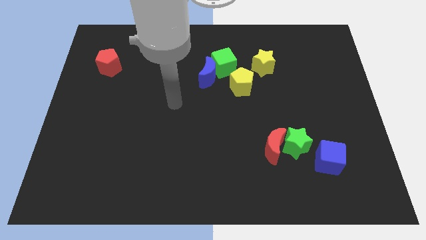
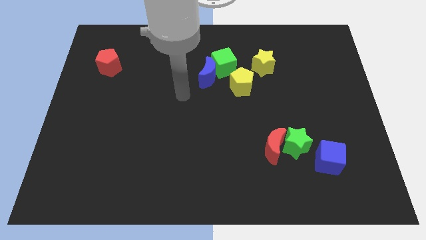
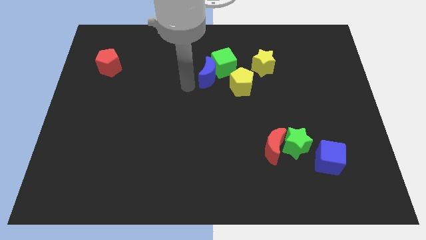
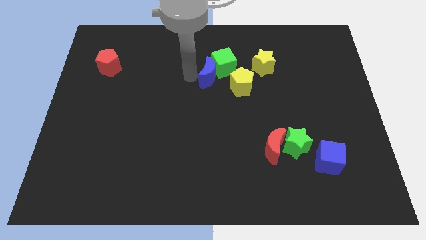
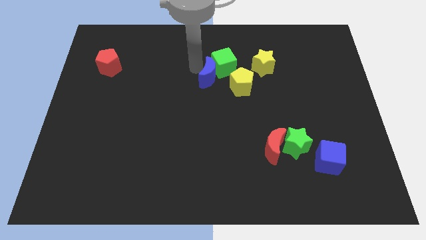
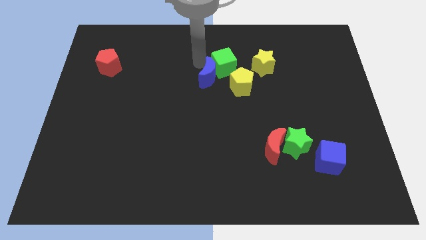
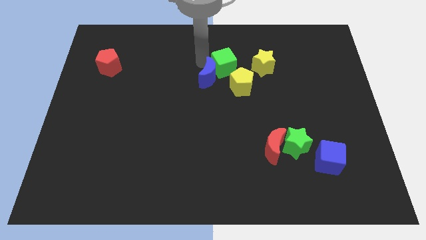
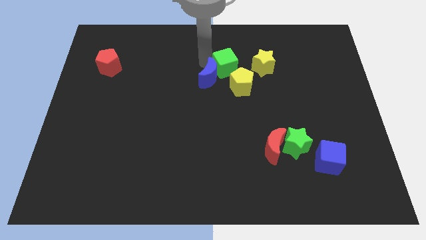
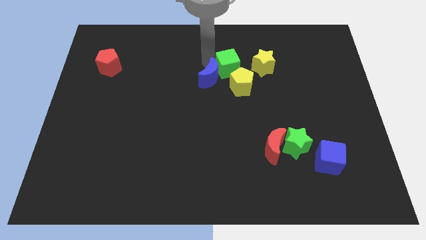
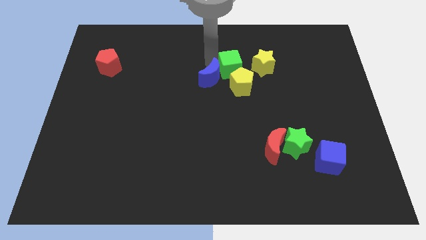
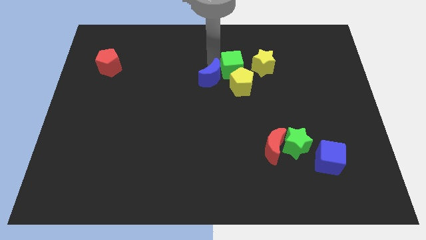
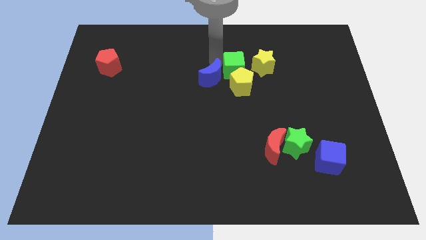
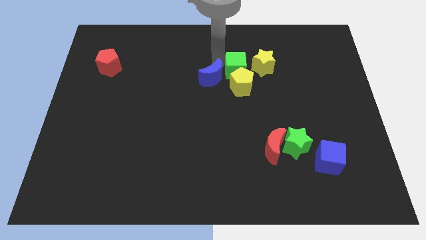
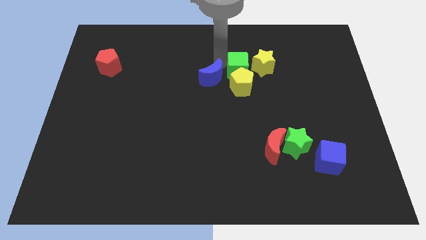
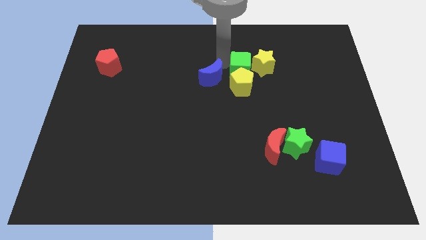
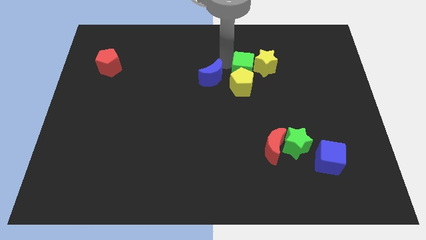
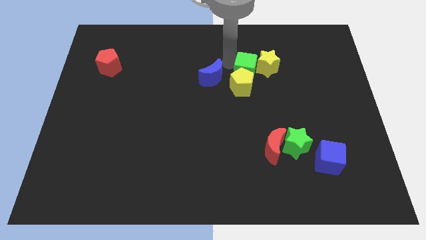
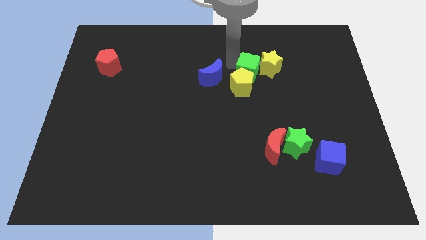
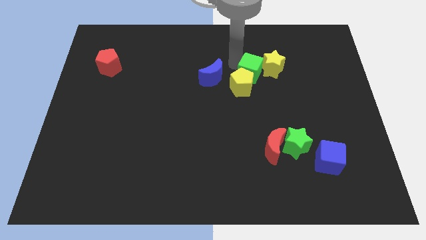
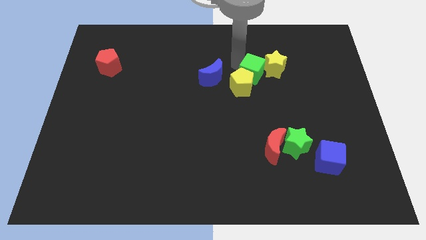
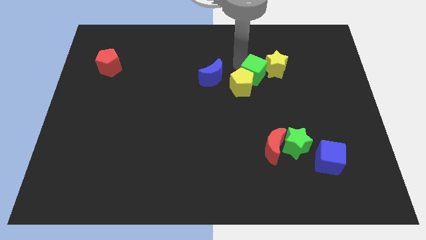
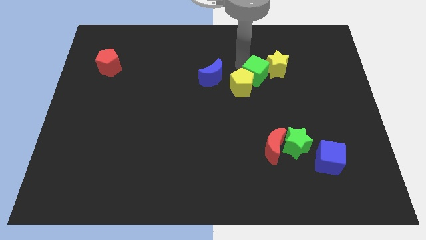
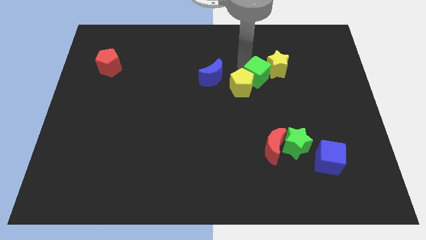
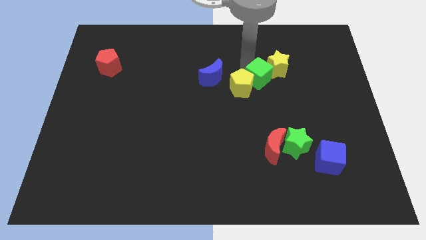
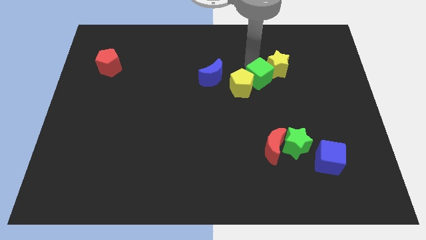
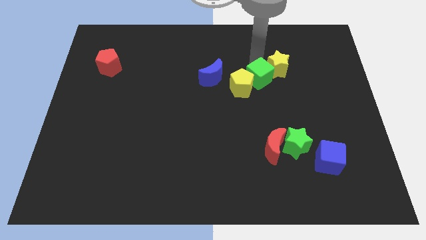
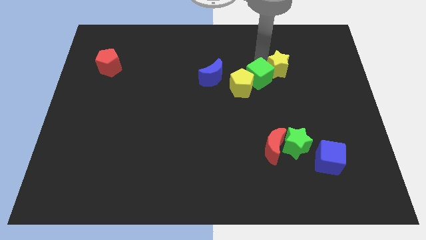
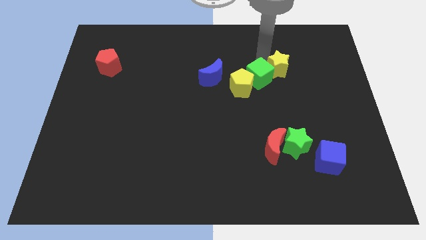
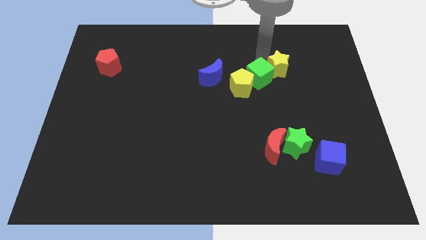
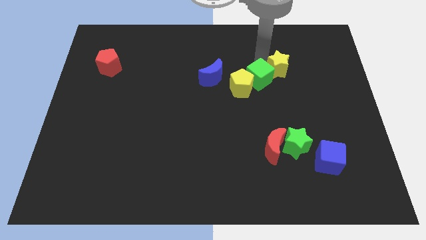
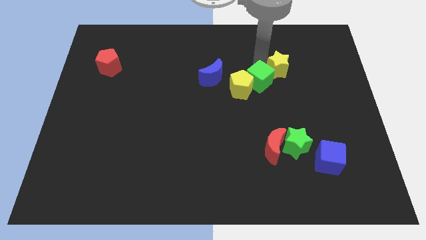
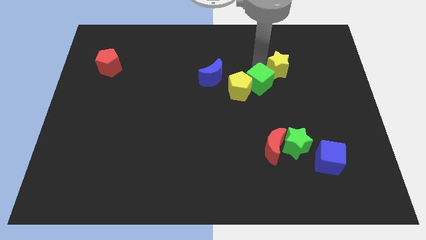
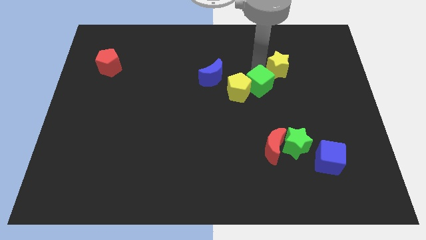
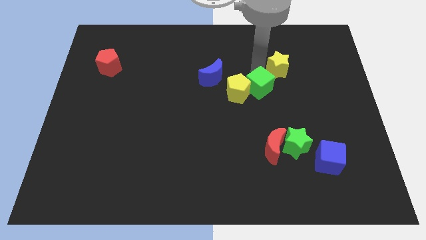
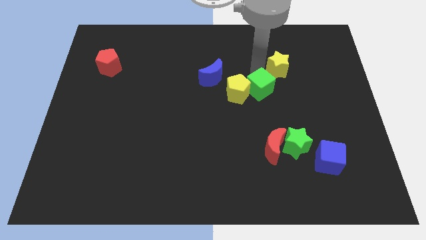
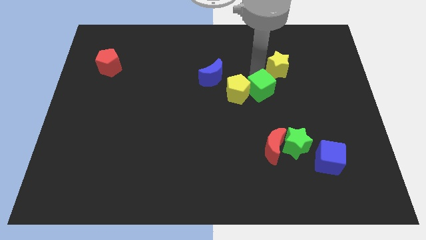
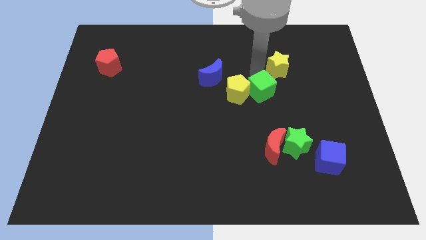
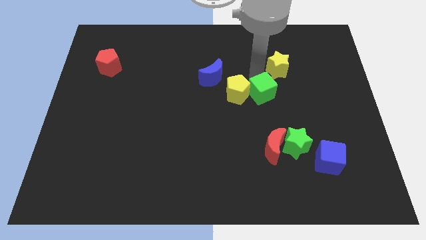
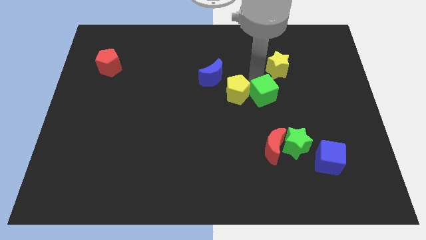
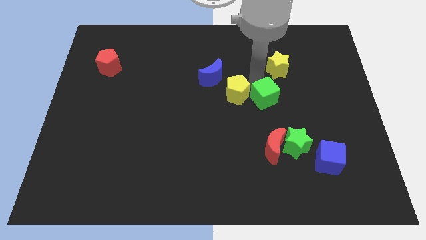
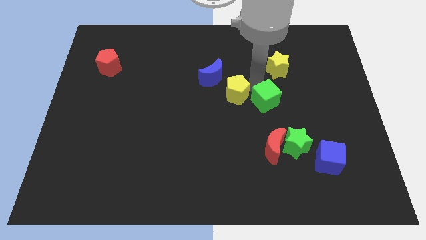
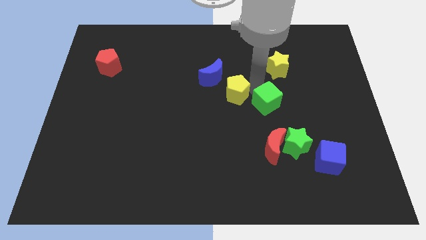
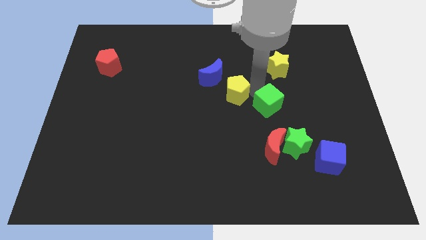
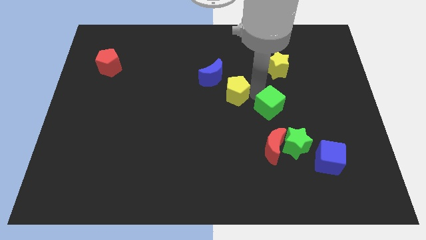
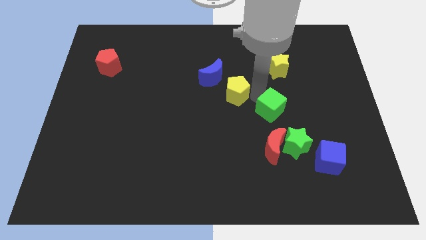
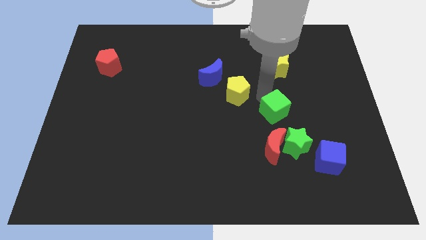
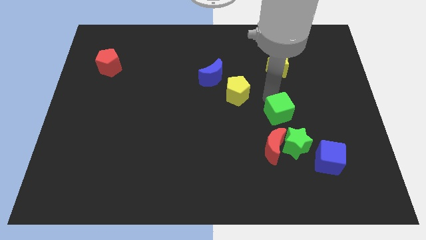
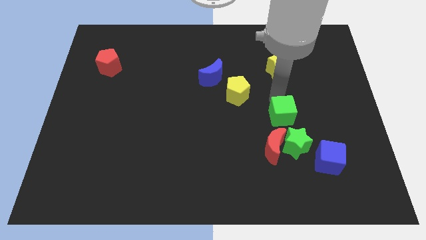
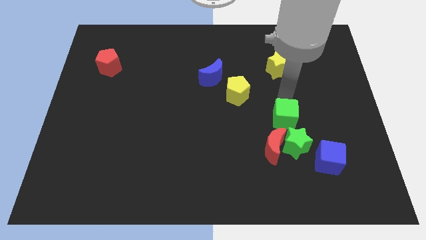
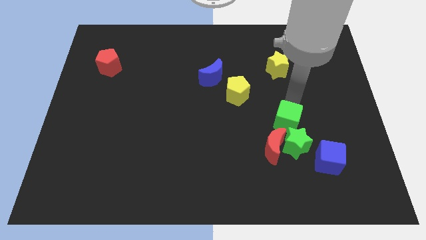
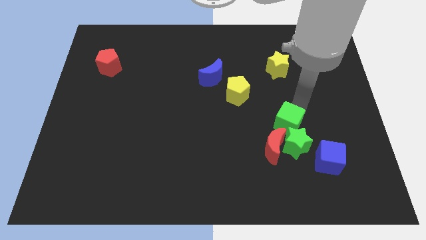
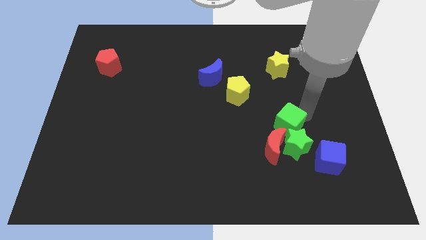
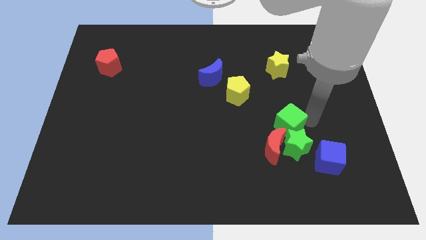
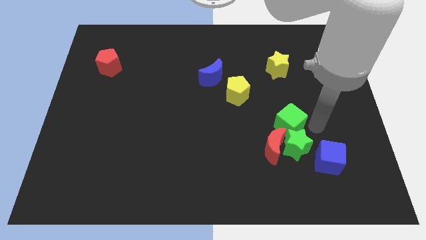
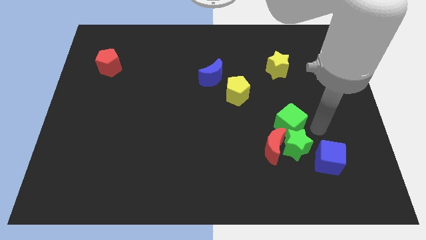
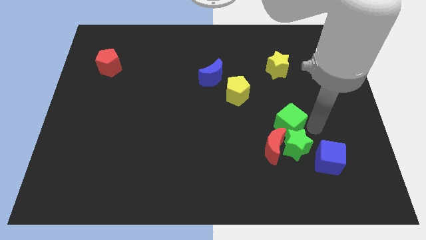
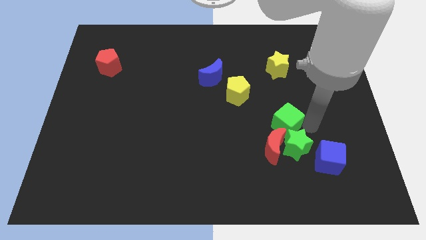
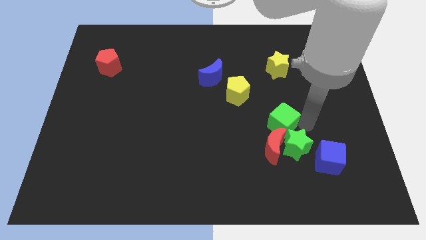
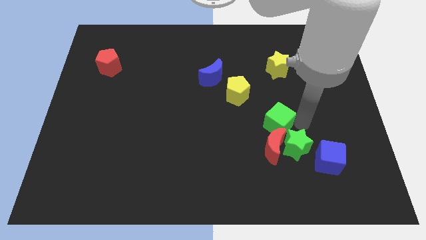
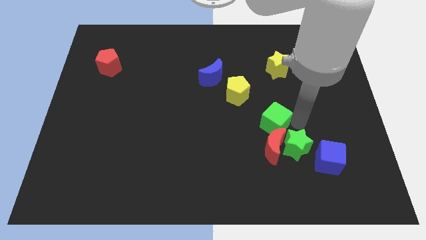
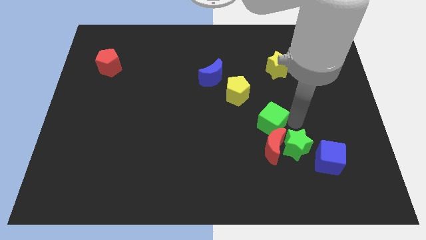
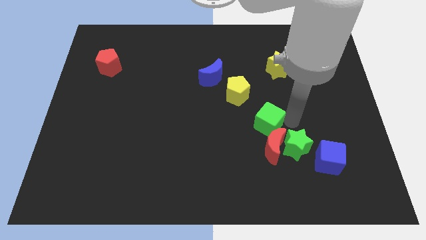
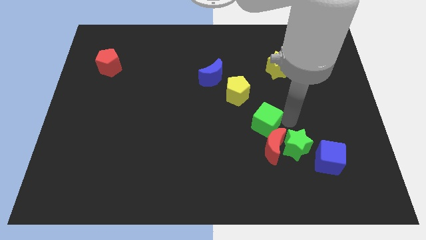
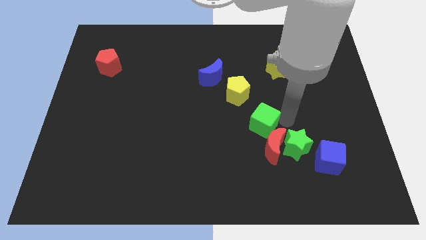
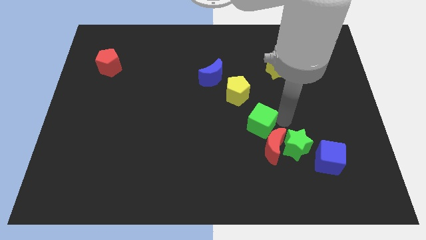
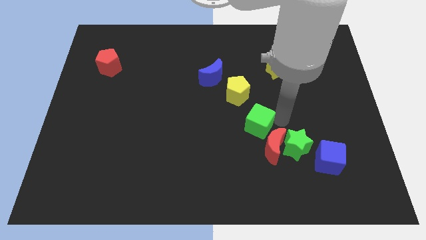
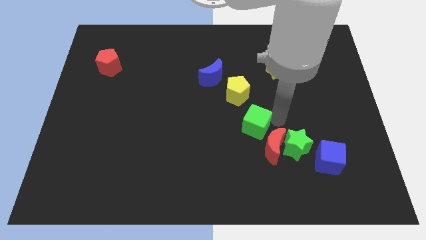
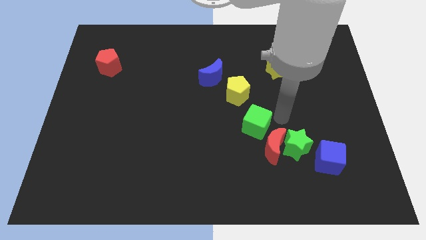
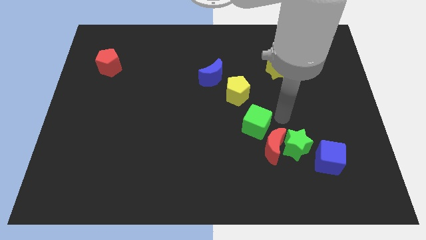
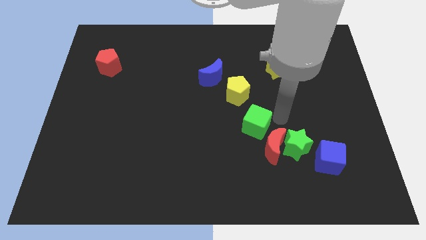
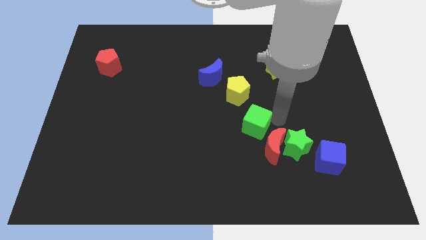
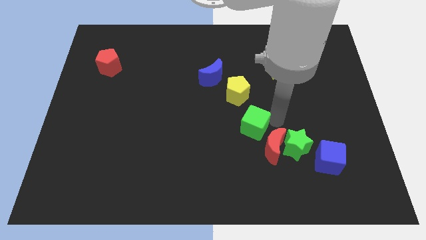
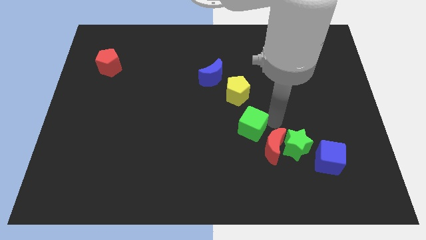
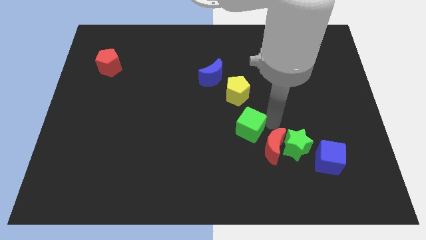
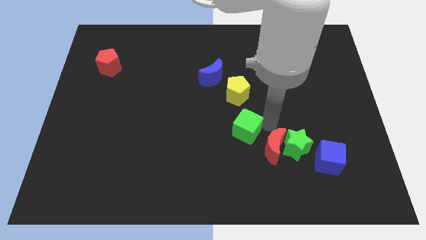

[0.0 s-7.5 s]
move the green cube left of the red moon
